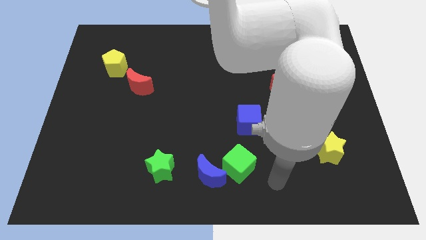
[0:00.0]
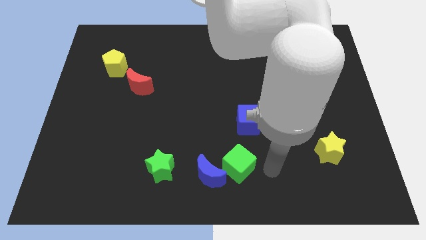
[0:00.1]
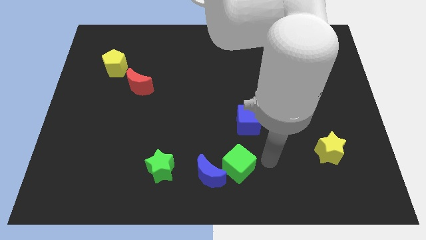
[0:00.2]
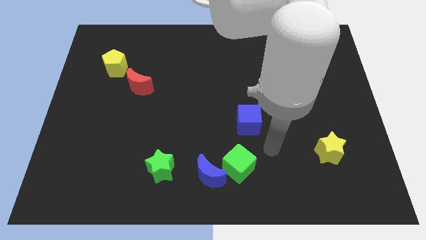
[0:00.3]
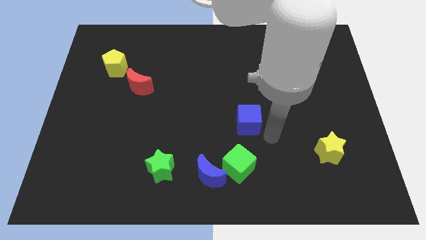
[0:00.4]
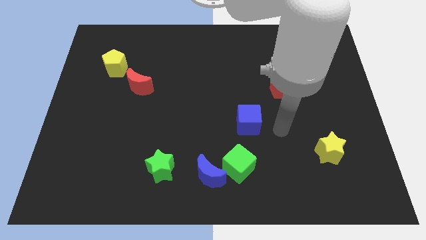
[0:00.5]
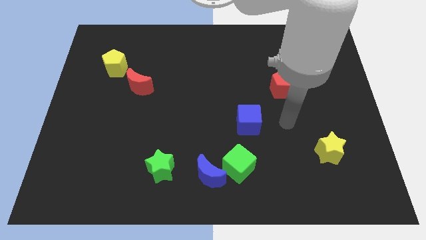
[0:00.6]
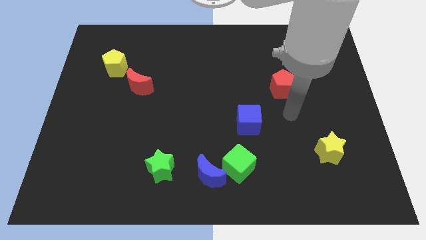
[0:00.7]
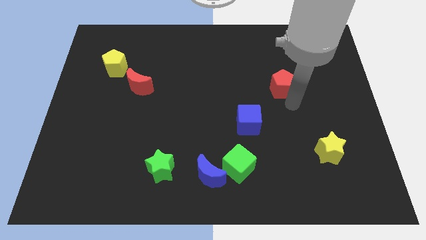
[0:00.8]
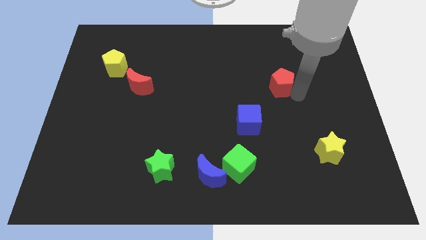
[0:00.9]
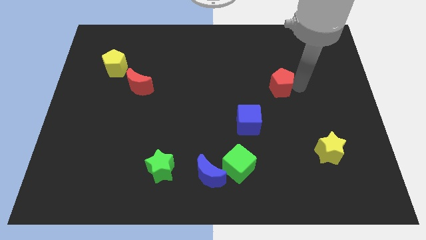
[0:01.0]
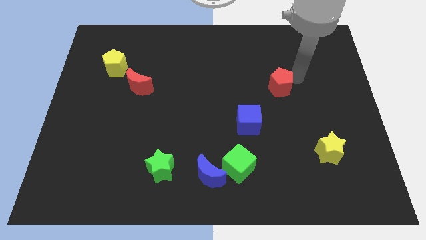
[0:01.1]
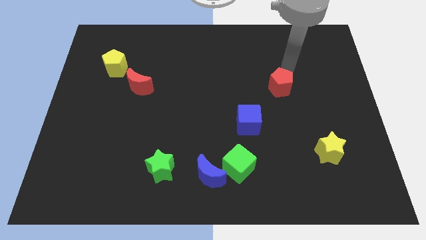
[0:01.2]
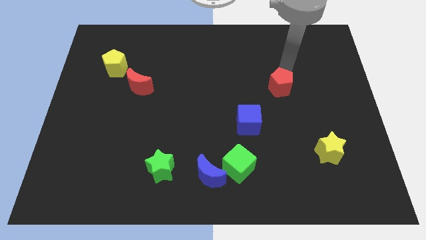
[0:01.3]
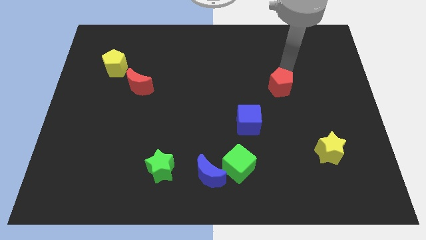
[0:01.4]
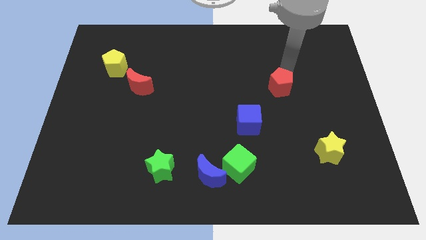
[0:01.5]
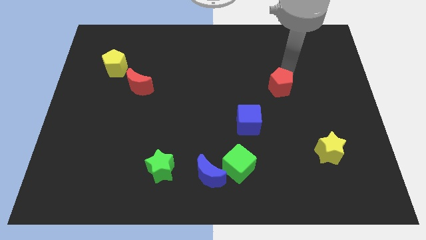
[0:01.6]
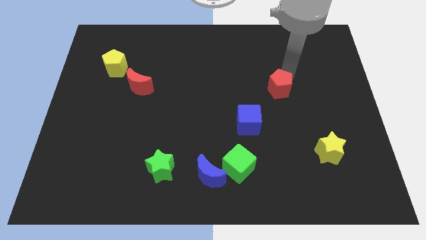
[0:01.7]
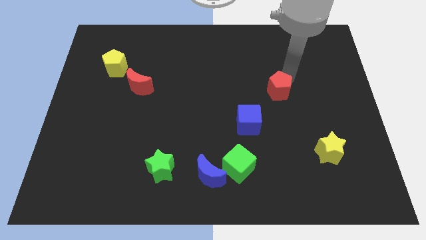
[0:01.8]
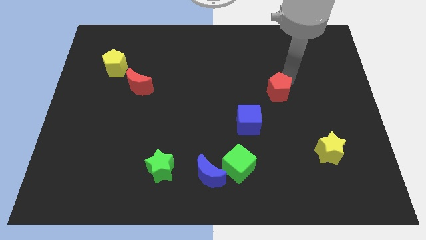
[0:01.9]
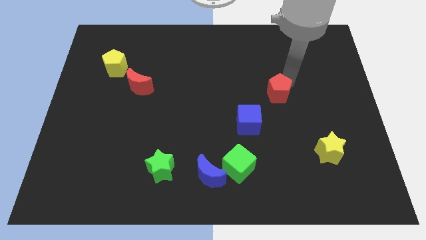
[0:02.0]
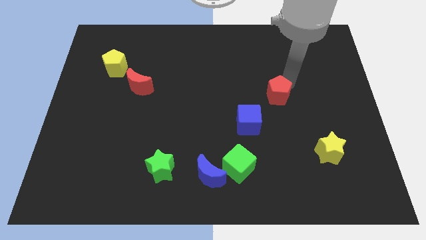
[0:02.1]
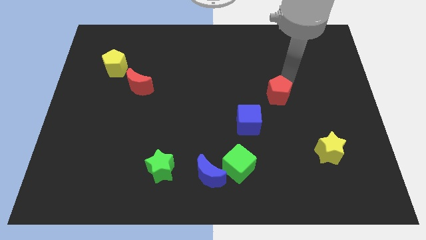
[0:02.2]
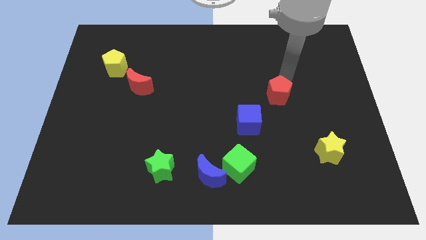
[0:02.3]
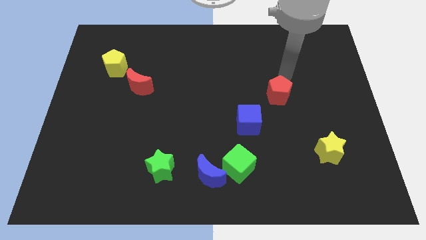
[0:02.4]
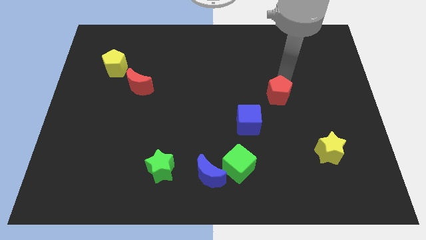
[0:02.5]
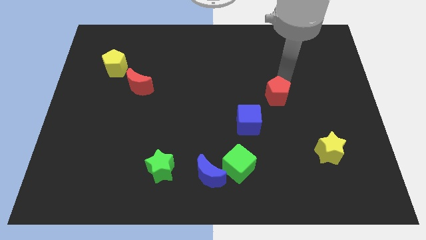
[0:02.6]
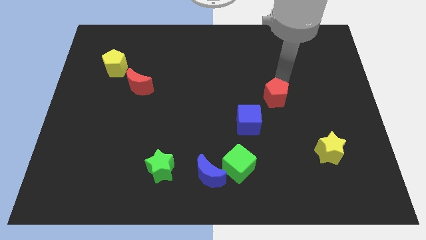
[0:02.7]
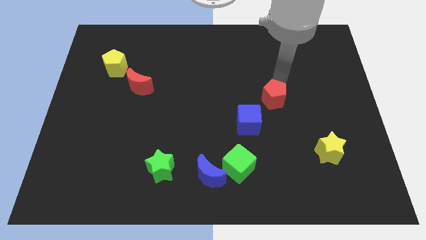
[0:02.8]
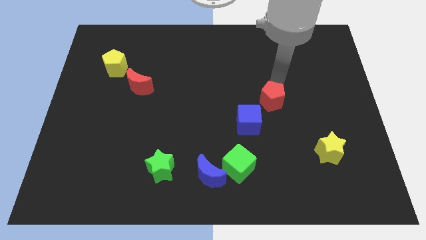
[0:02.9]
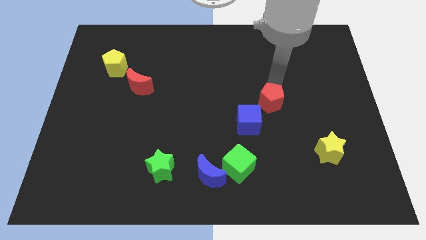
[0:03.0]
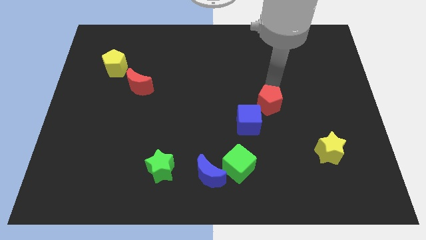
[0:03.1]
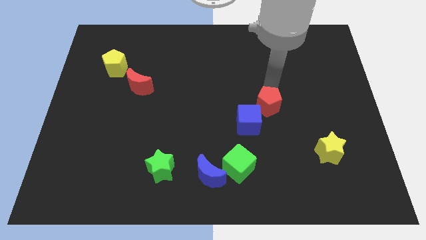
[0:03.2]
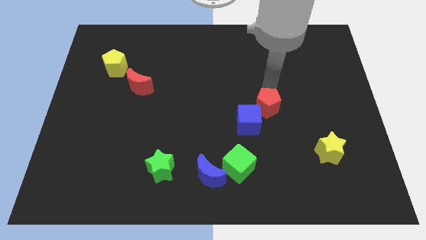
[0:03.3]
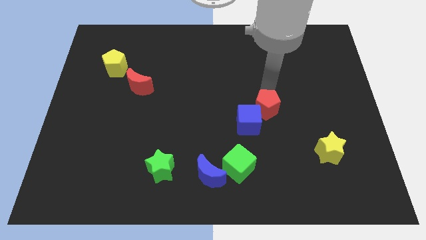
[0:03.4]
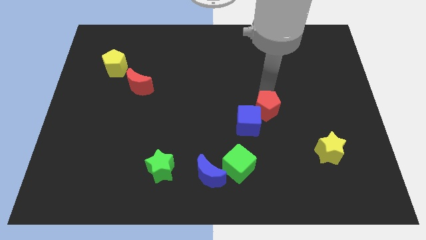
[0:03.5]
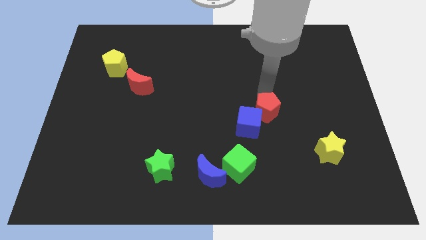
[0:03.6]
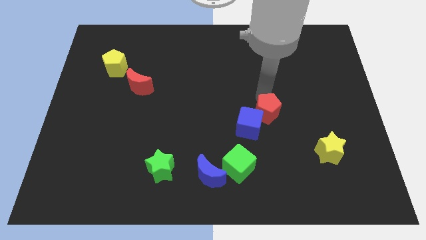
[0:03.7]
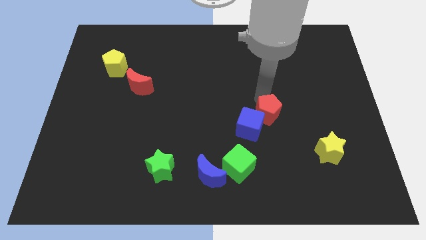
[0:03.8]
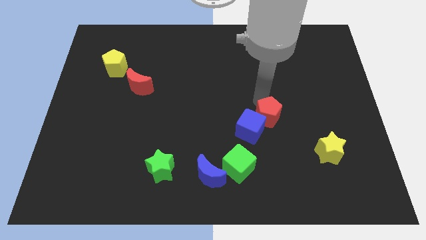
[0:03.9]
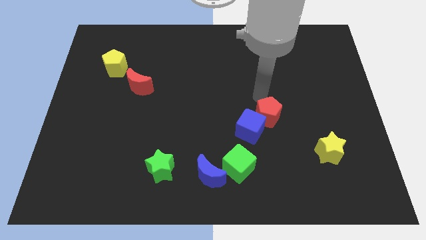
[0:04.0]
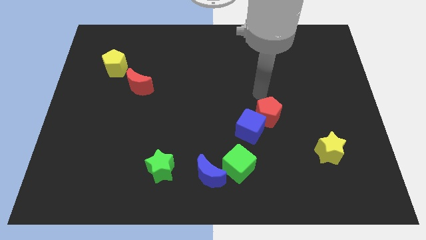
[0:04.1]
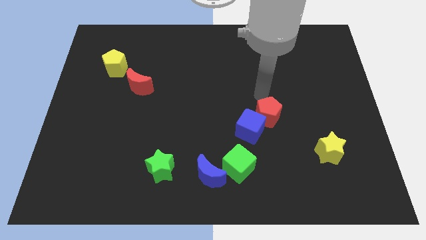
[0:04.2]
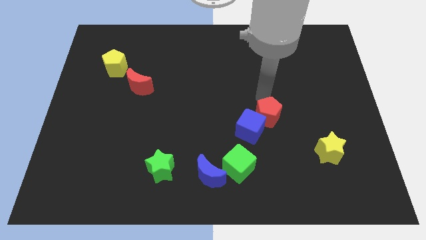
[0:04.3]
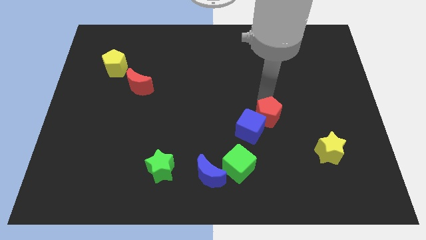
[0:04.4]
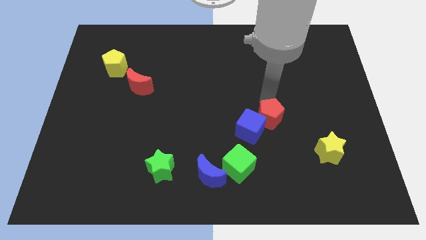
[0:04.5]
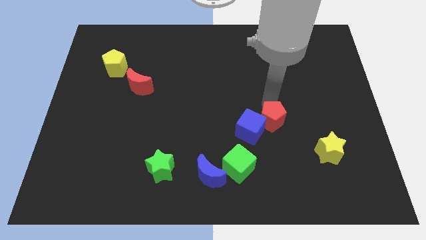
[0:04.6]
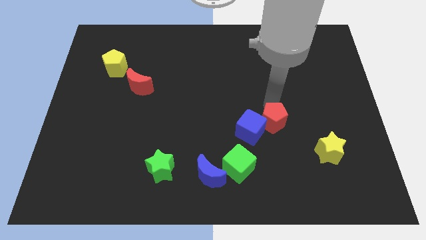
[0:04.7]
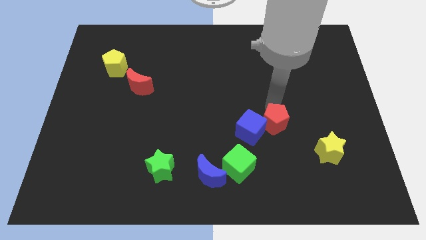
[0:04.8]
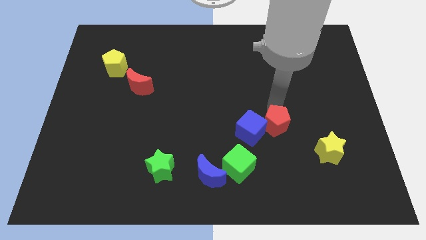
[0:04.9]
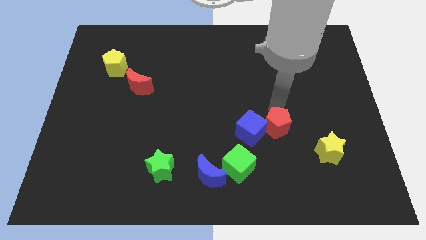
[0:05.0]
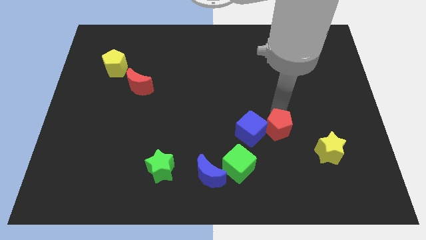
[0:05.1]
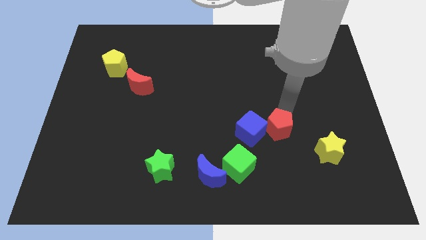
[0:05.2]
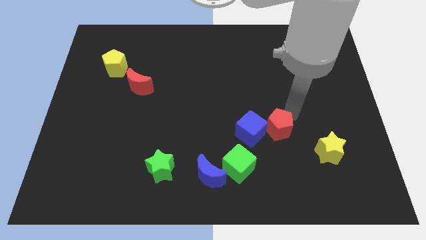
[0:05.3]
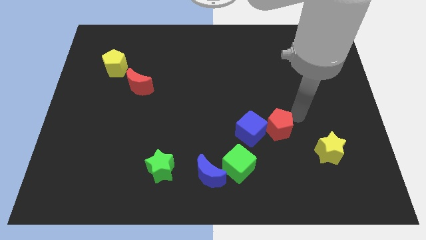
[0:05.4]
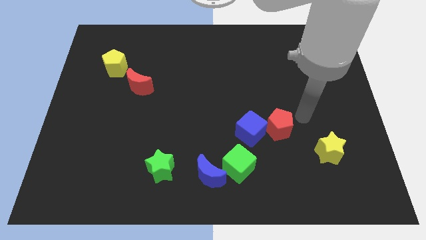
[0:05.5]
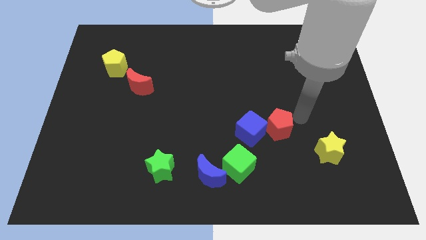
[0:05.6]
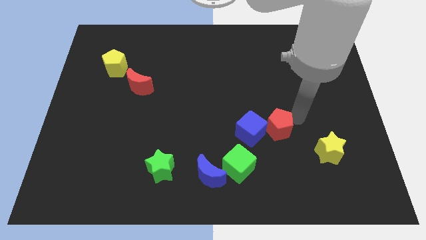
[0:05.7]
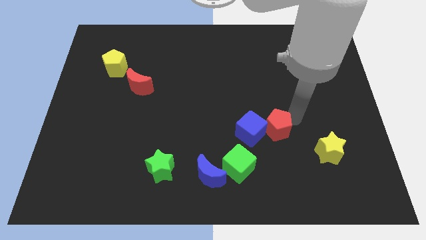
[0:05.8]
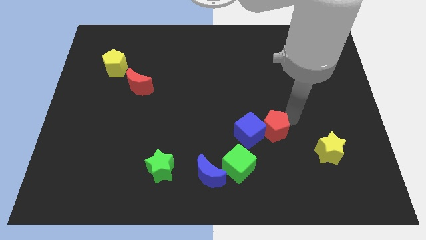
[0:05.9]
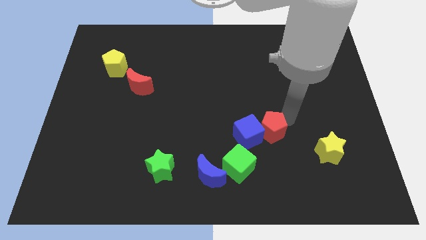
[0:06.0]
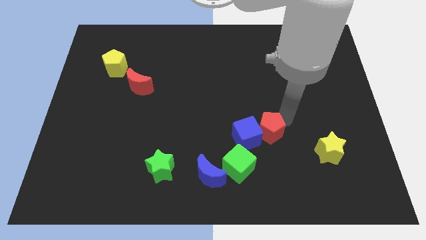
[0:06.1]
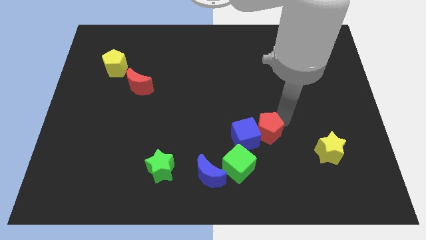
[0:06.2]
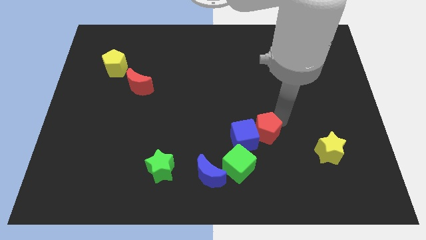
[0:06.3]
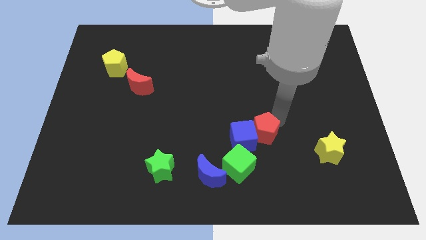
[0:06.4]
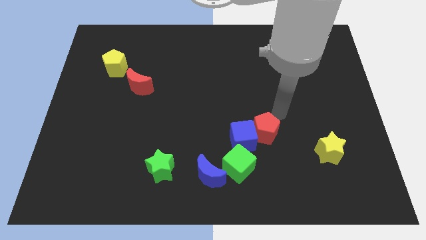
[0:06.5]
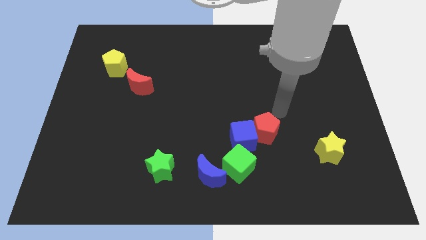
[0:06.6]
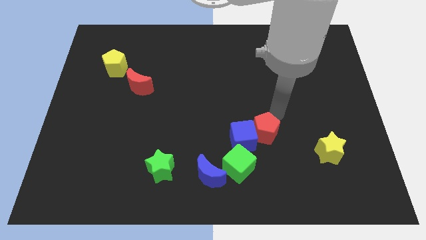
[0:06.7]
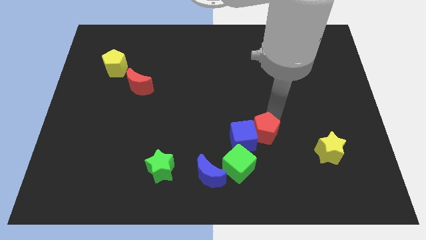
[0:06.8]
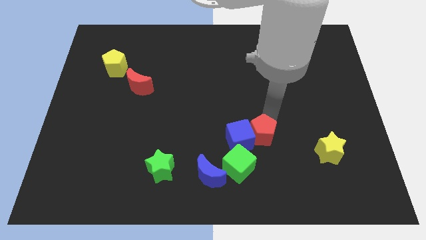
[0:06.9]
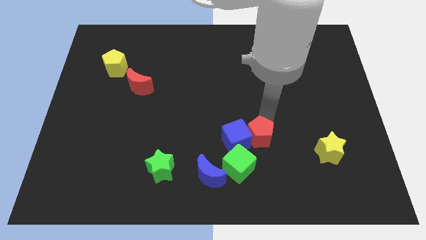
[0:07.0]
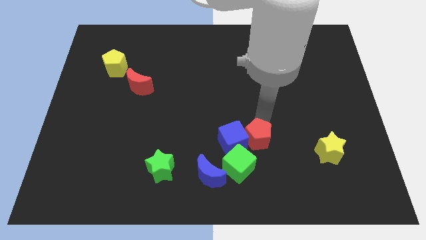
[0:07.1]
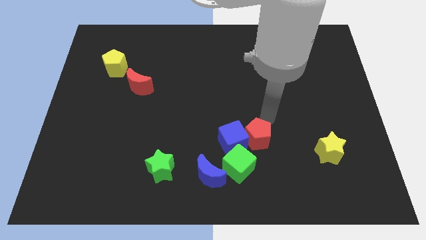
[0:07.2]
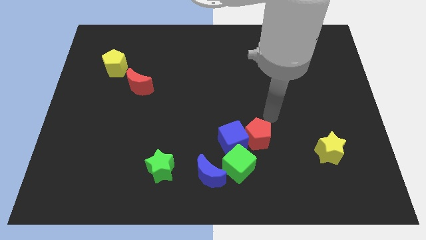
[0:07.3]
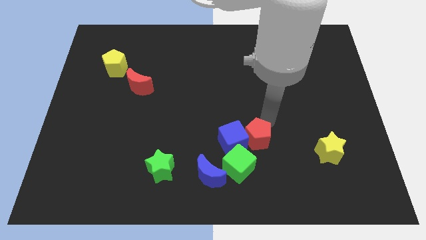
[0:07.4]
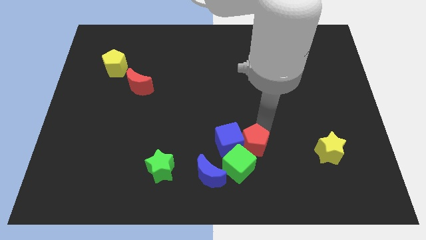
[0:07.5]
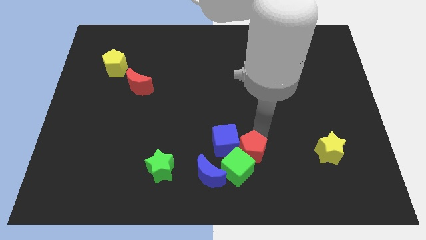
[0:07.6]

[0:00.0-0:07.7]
put the red pentagon next to the green cube
